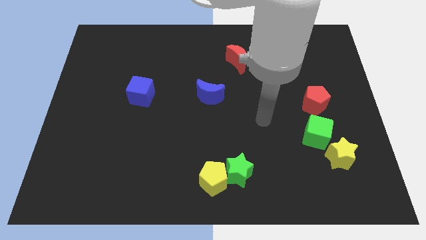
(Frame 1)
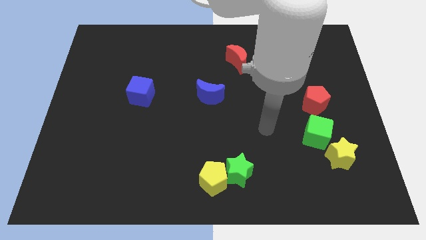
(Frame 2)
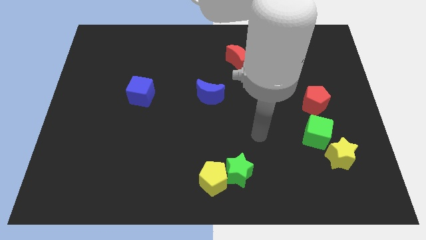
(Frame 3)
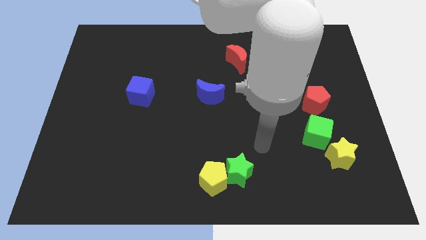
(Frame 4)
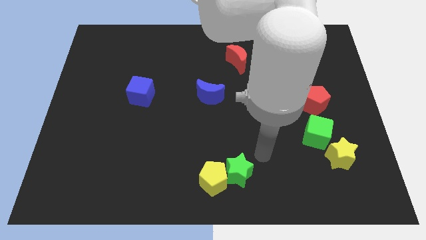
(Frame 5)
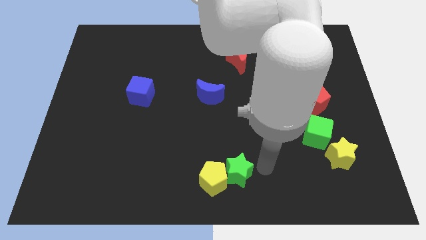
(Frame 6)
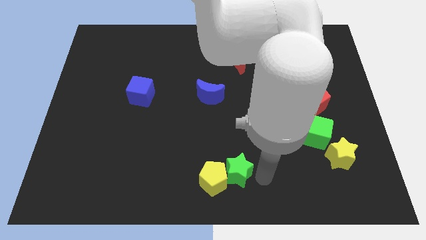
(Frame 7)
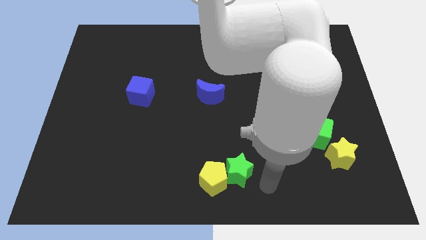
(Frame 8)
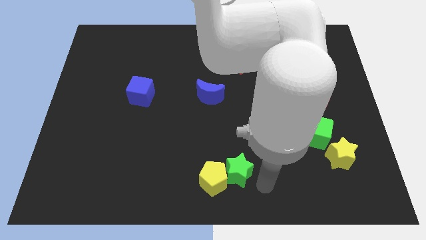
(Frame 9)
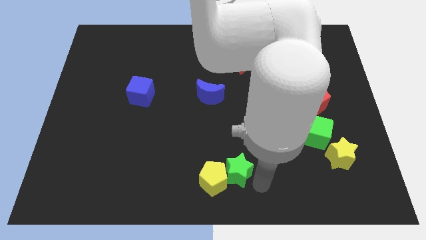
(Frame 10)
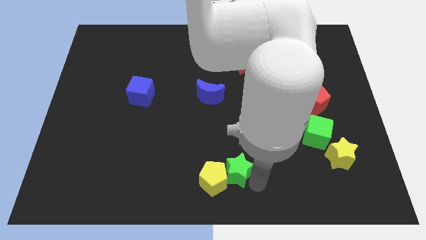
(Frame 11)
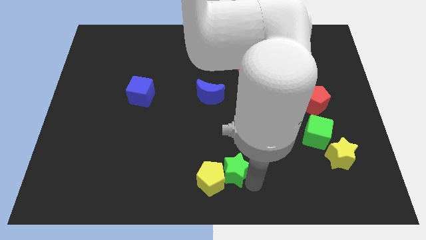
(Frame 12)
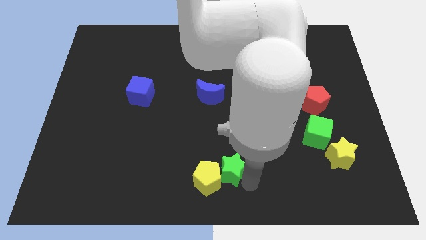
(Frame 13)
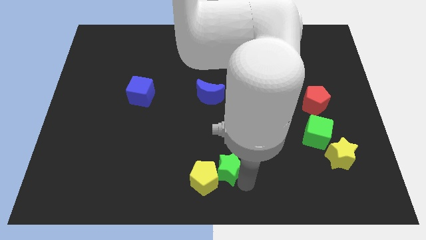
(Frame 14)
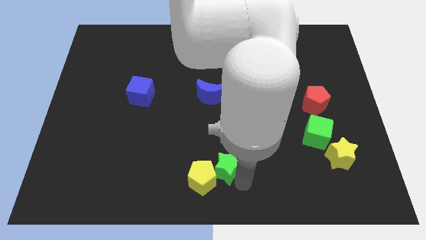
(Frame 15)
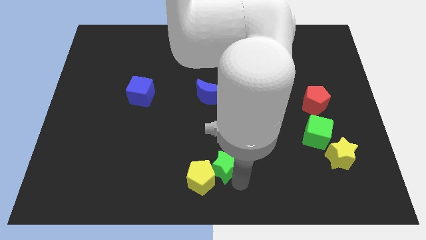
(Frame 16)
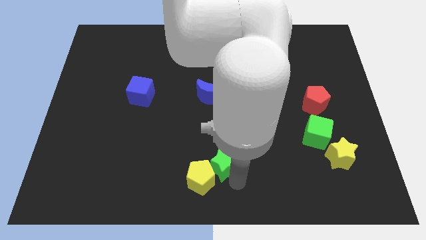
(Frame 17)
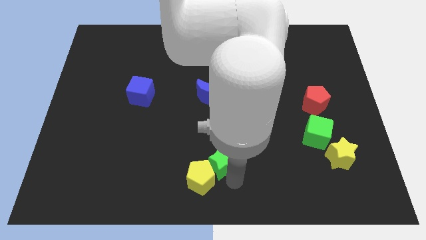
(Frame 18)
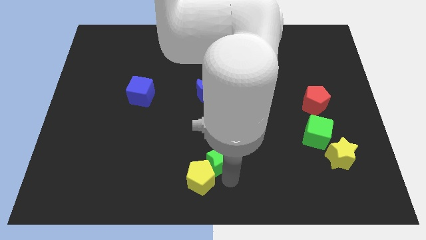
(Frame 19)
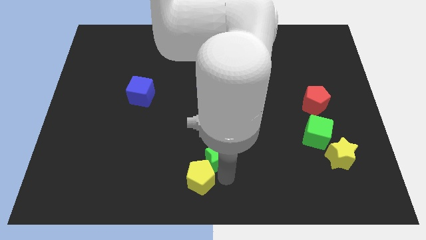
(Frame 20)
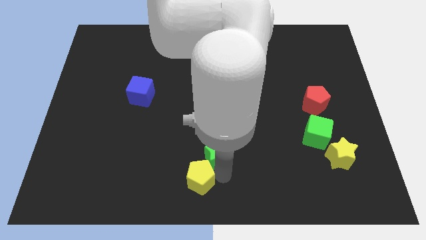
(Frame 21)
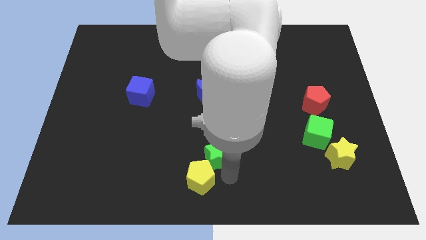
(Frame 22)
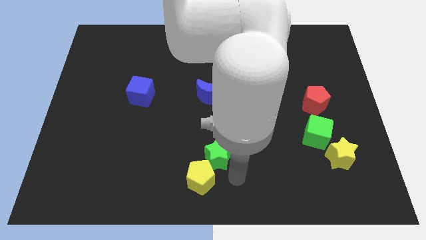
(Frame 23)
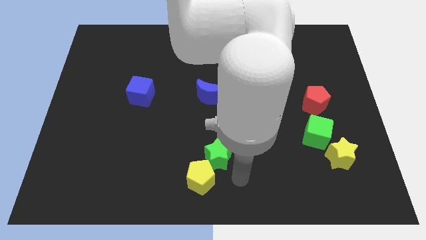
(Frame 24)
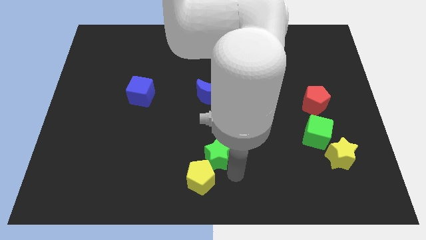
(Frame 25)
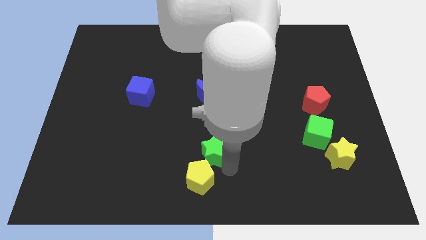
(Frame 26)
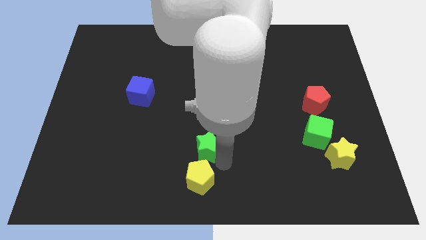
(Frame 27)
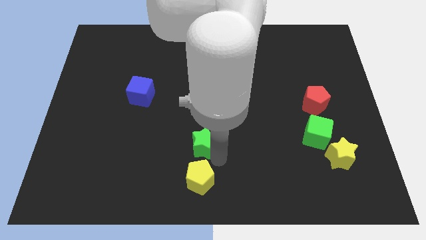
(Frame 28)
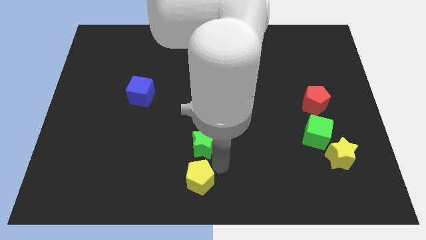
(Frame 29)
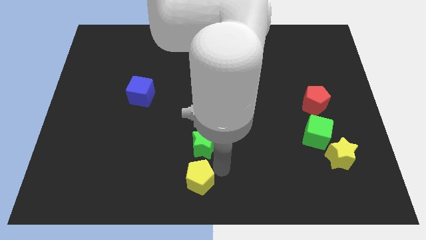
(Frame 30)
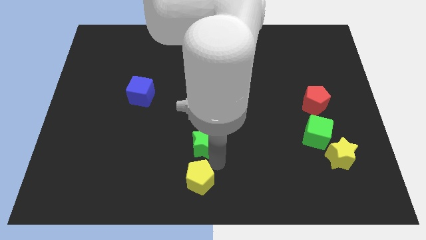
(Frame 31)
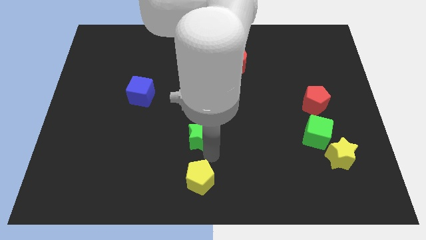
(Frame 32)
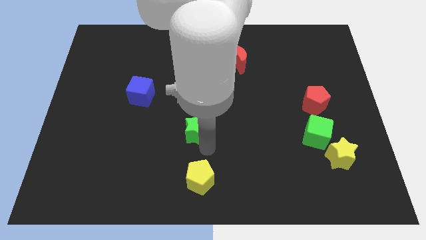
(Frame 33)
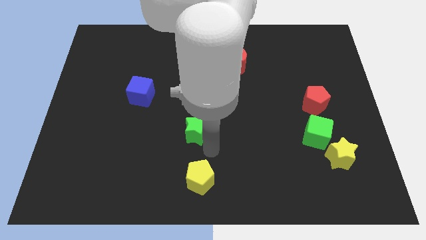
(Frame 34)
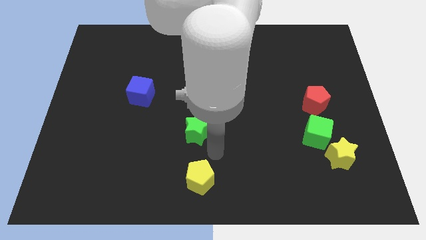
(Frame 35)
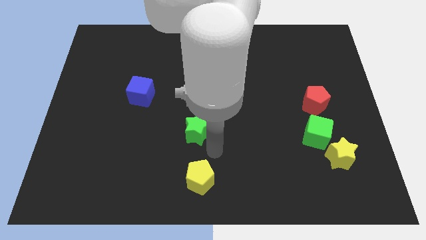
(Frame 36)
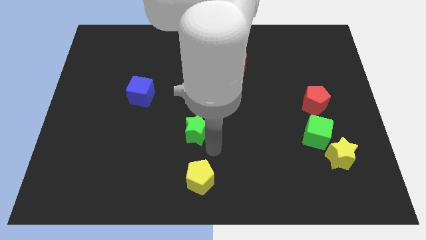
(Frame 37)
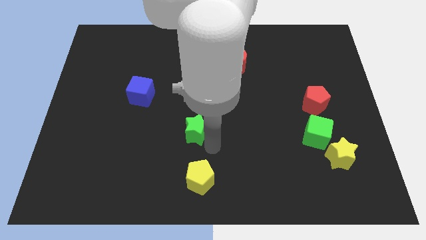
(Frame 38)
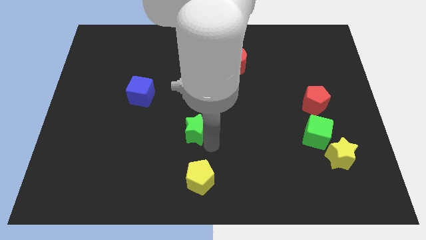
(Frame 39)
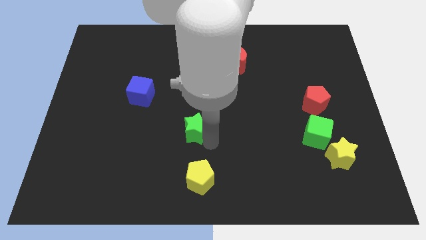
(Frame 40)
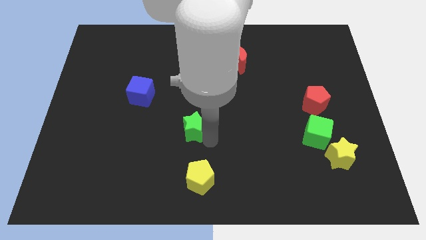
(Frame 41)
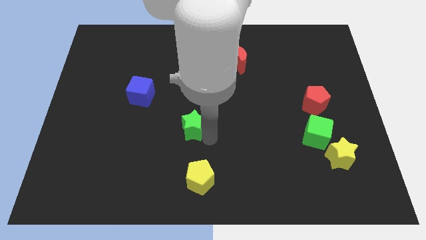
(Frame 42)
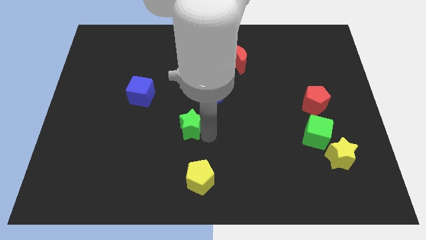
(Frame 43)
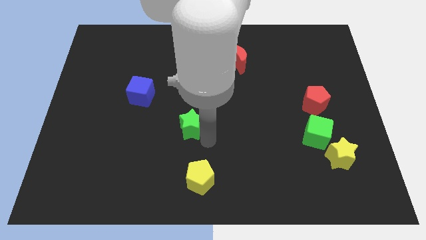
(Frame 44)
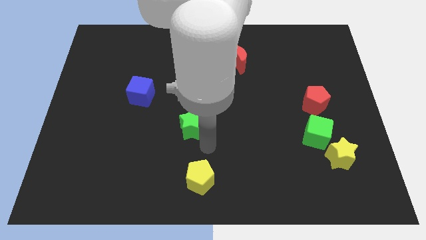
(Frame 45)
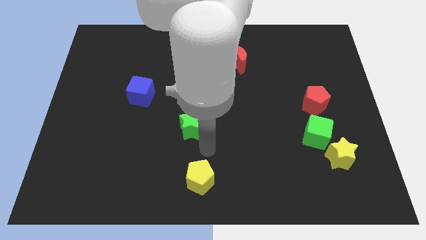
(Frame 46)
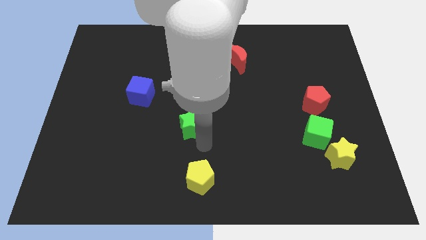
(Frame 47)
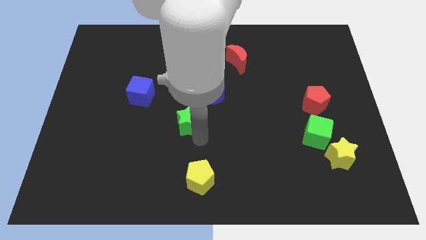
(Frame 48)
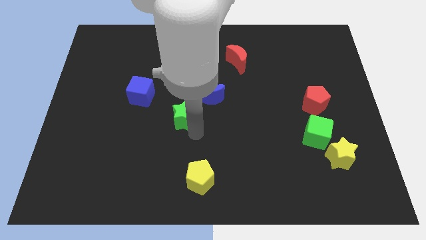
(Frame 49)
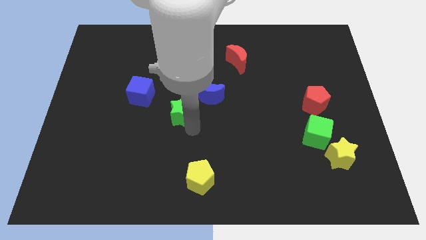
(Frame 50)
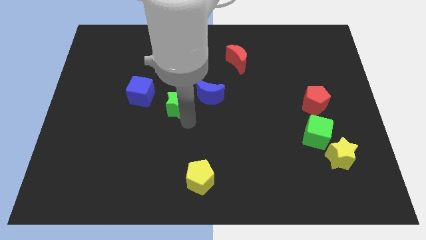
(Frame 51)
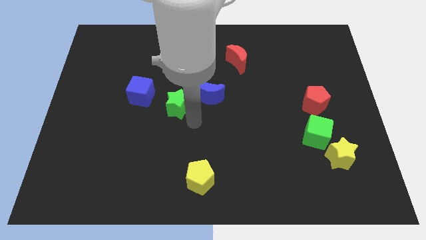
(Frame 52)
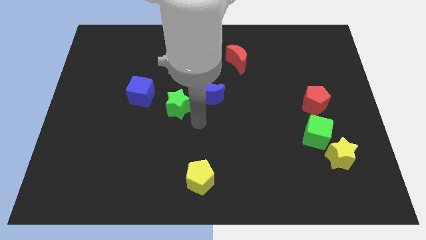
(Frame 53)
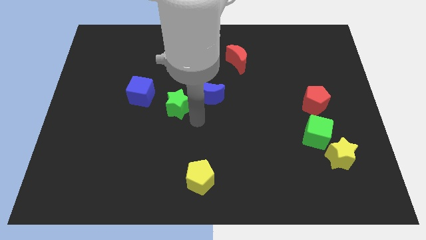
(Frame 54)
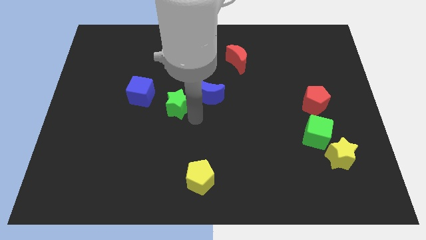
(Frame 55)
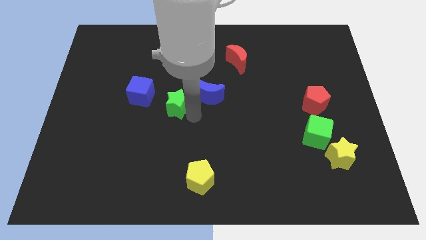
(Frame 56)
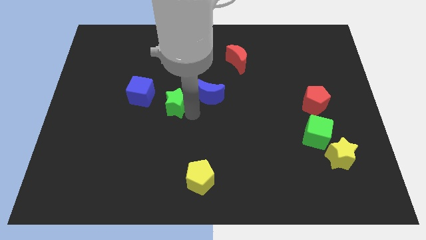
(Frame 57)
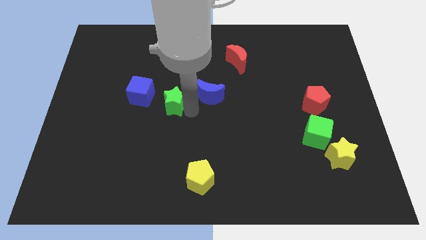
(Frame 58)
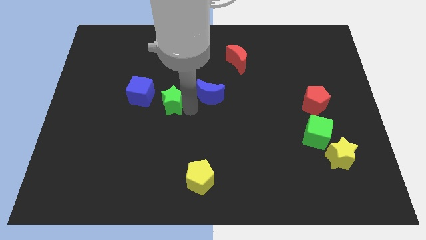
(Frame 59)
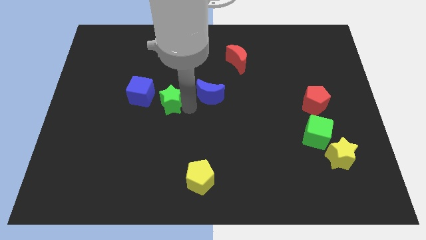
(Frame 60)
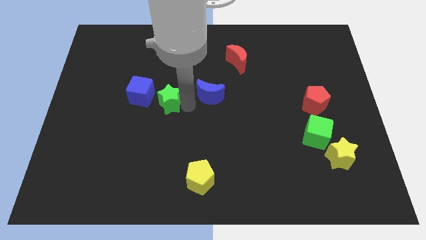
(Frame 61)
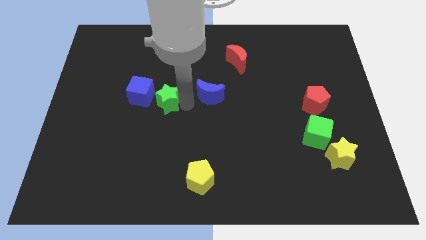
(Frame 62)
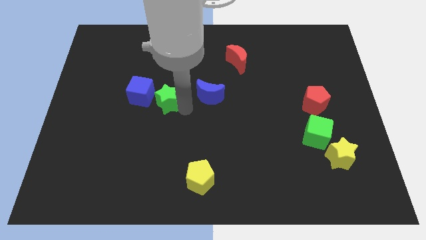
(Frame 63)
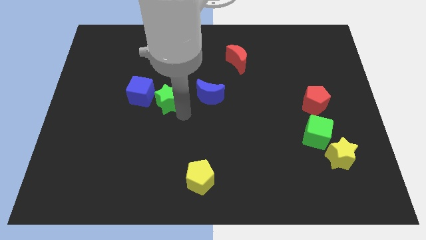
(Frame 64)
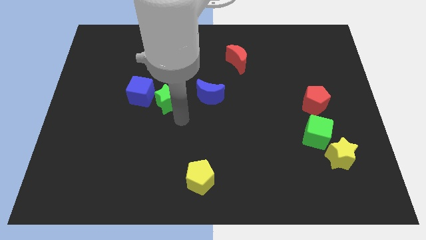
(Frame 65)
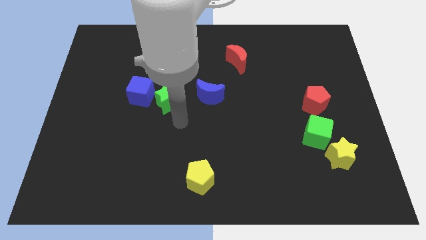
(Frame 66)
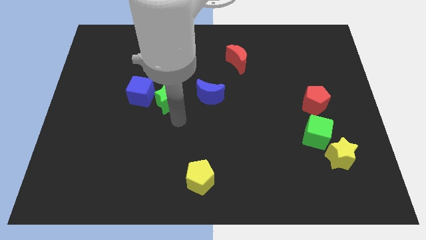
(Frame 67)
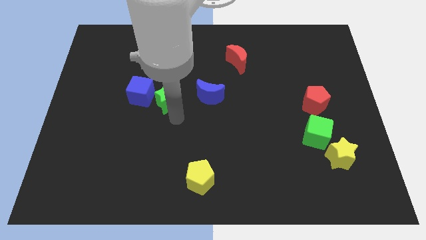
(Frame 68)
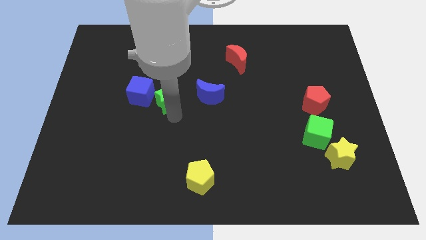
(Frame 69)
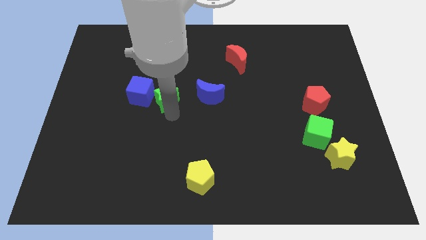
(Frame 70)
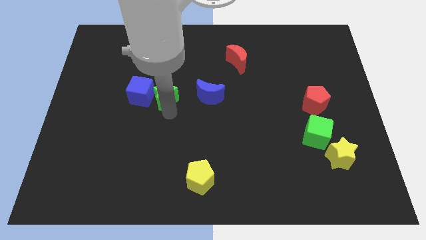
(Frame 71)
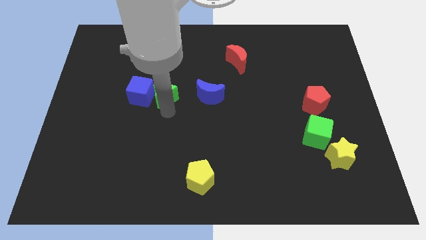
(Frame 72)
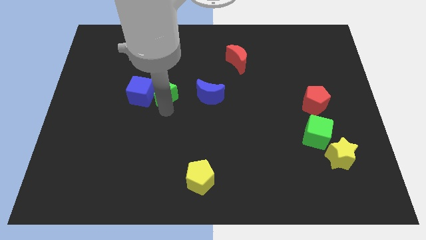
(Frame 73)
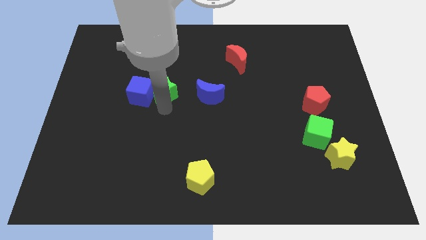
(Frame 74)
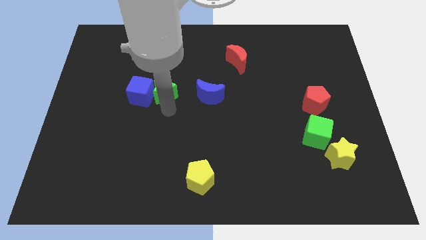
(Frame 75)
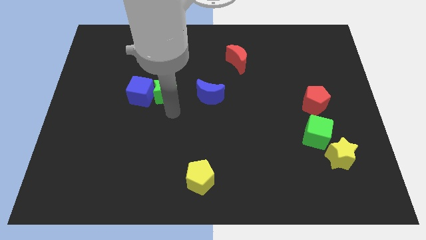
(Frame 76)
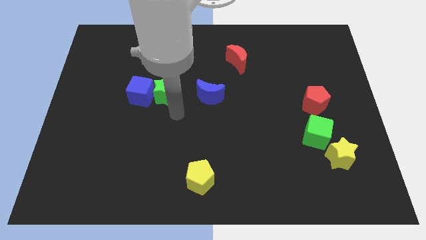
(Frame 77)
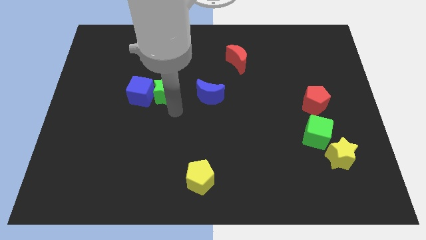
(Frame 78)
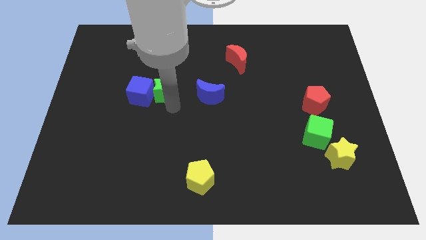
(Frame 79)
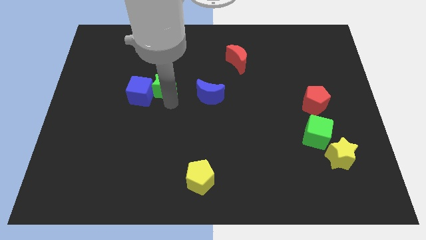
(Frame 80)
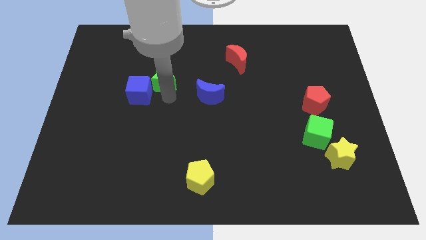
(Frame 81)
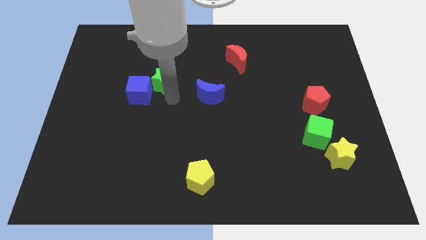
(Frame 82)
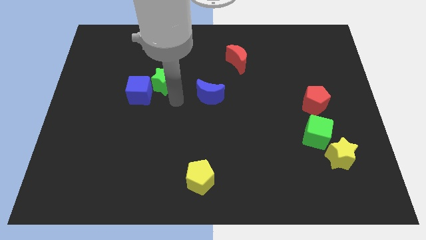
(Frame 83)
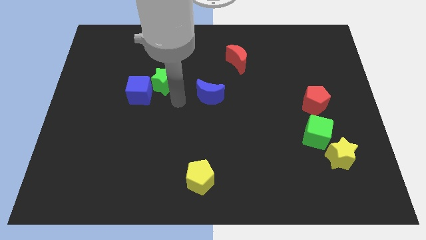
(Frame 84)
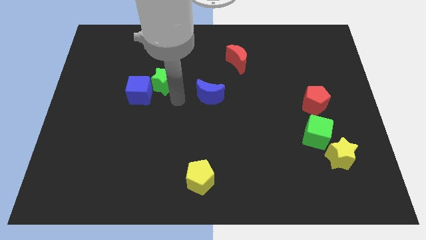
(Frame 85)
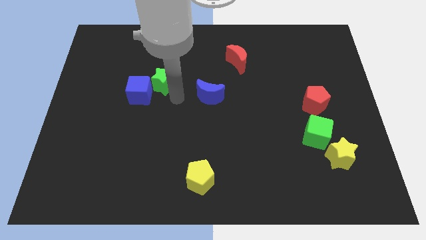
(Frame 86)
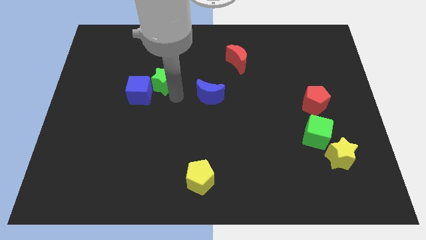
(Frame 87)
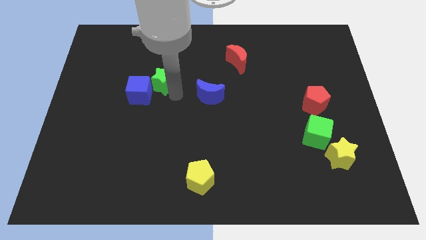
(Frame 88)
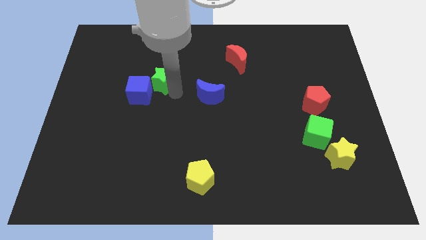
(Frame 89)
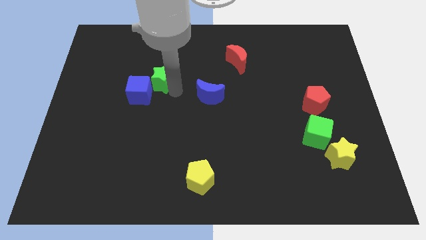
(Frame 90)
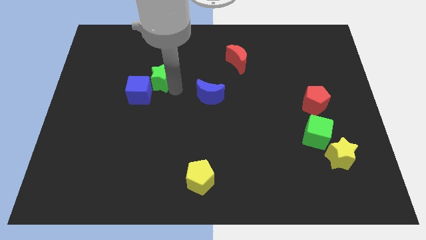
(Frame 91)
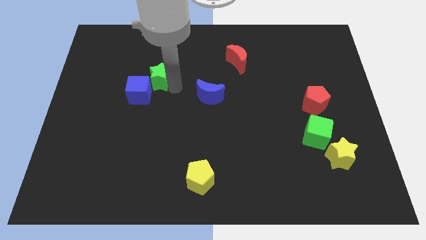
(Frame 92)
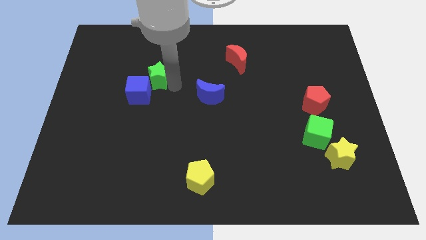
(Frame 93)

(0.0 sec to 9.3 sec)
put the green star to the top of the blue cube
